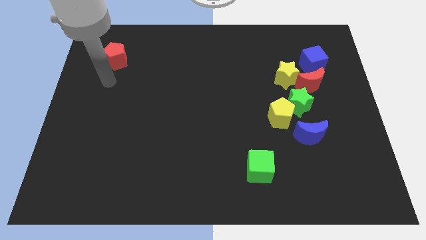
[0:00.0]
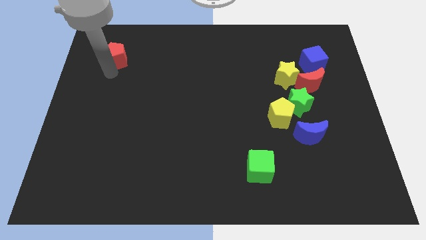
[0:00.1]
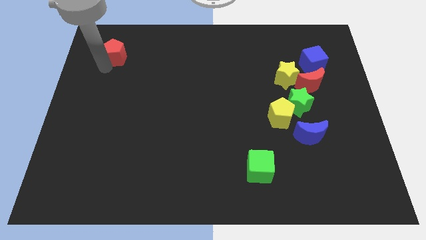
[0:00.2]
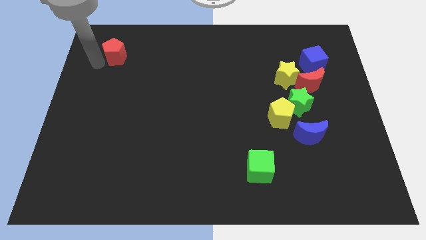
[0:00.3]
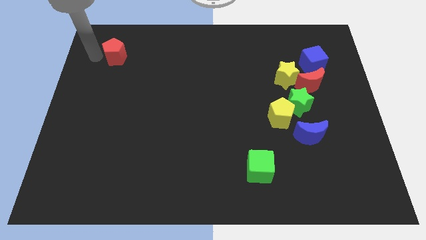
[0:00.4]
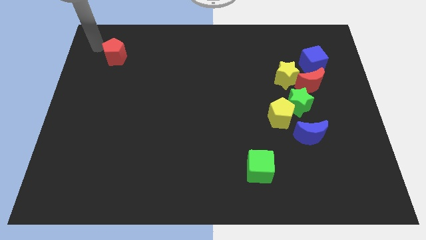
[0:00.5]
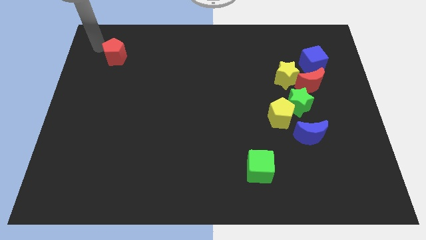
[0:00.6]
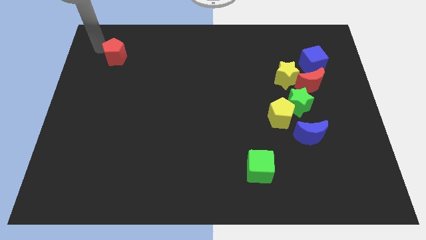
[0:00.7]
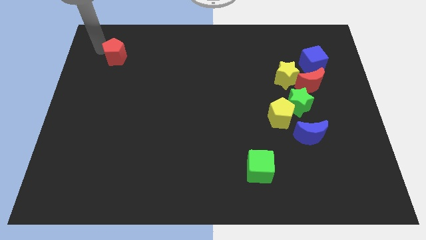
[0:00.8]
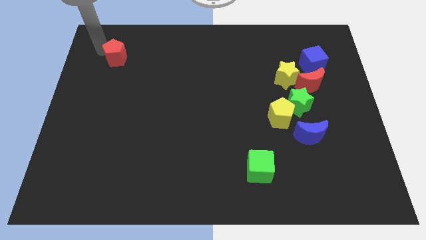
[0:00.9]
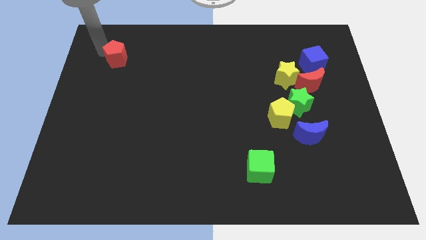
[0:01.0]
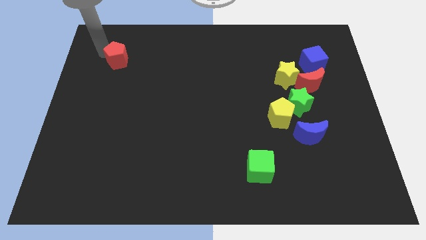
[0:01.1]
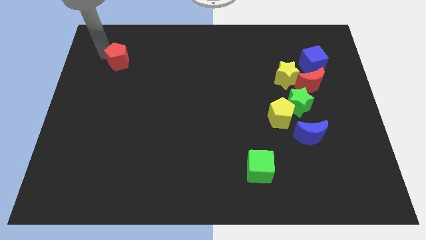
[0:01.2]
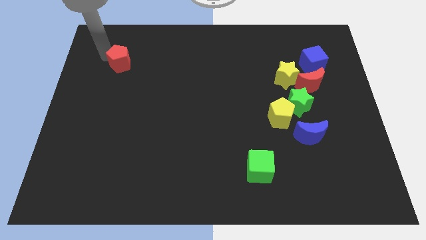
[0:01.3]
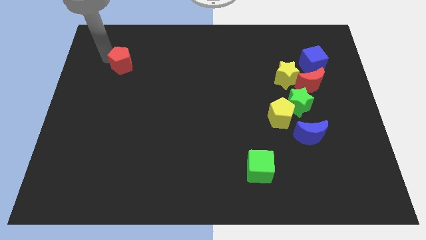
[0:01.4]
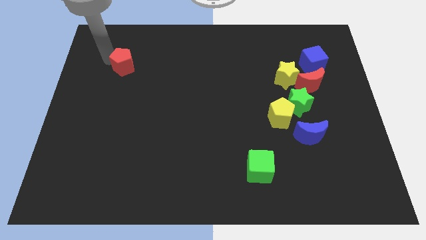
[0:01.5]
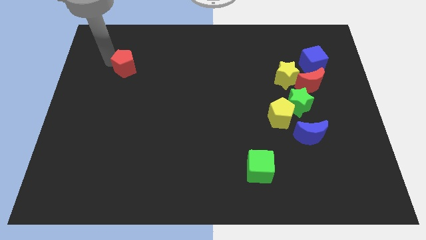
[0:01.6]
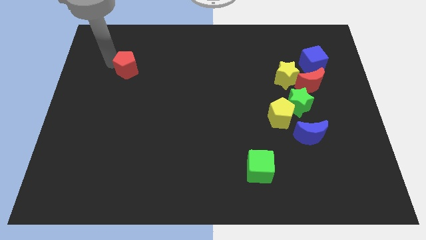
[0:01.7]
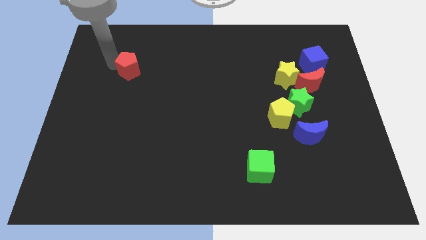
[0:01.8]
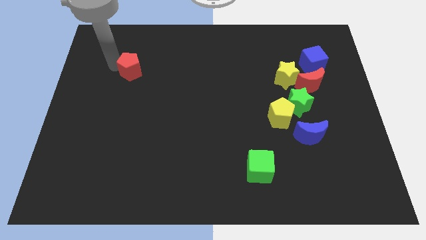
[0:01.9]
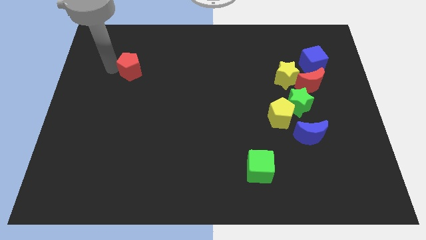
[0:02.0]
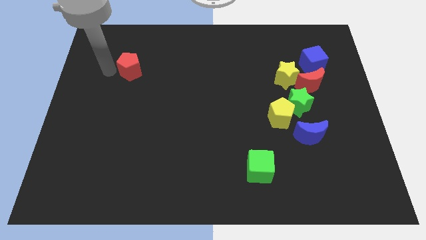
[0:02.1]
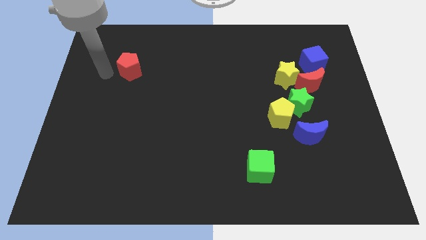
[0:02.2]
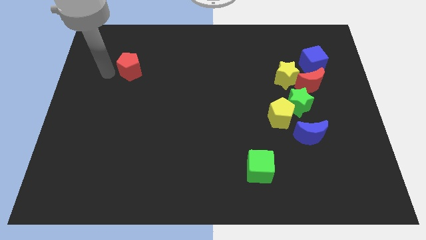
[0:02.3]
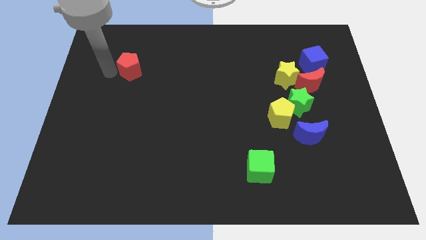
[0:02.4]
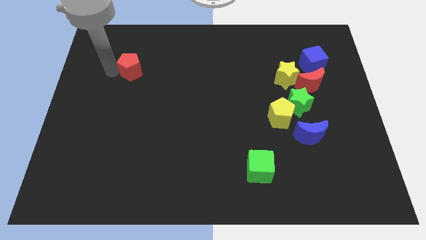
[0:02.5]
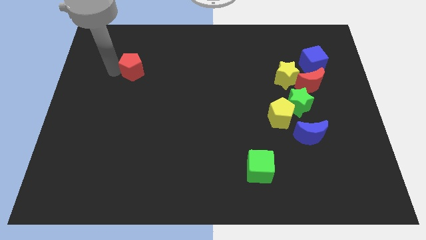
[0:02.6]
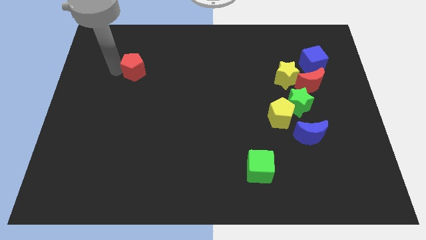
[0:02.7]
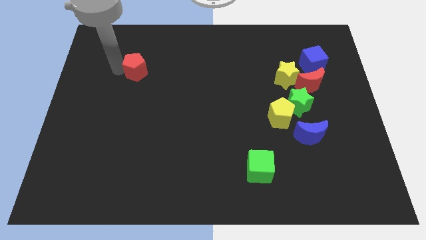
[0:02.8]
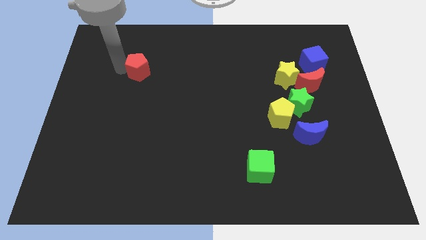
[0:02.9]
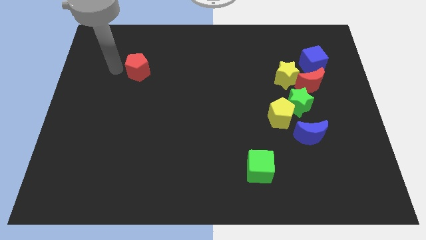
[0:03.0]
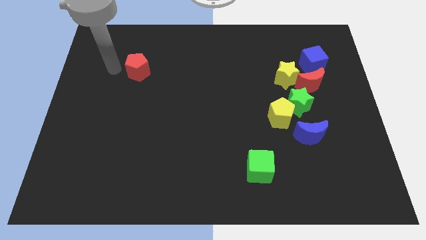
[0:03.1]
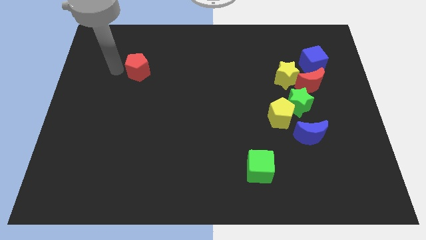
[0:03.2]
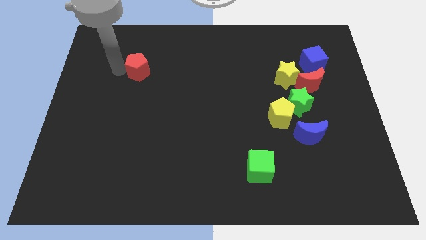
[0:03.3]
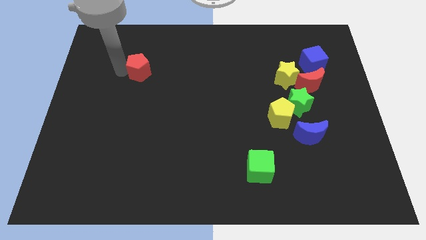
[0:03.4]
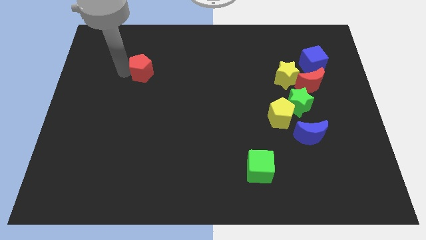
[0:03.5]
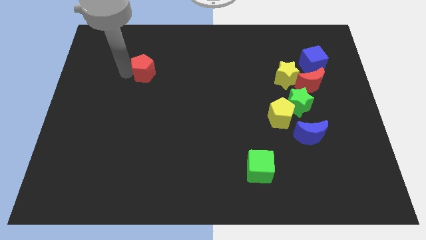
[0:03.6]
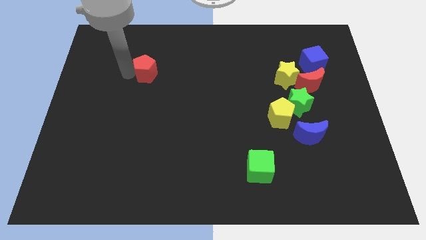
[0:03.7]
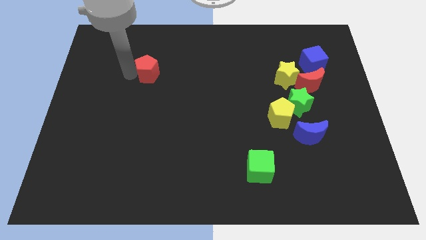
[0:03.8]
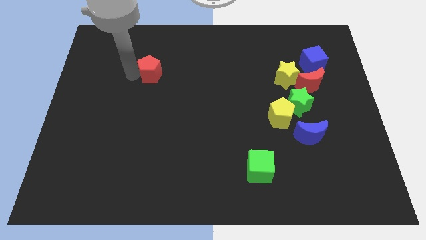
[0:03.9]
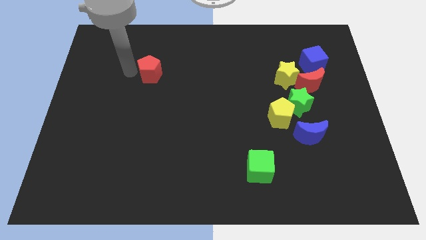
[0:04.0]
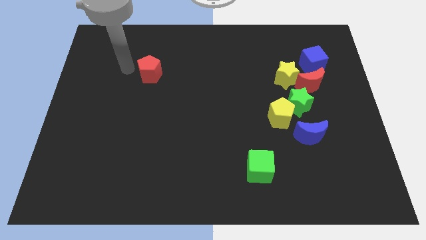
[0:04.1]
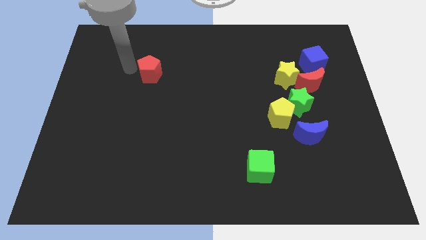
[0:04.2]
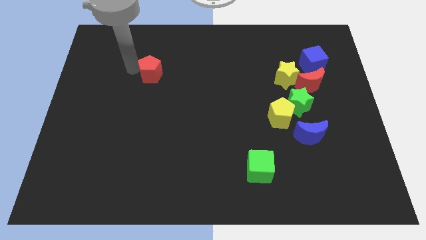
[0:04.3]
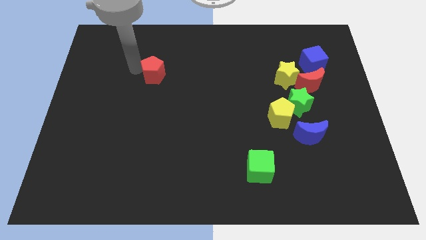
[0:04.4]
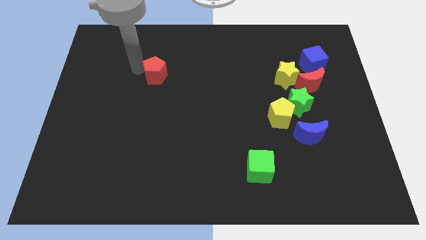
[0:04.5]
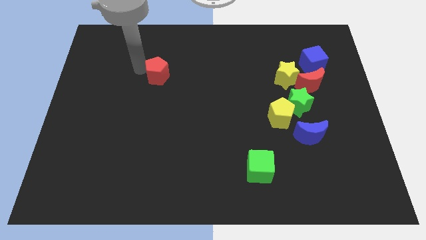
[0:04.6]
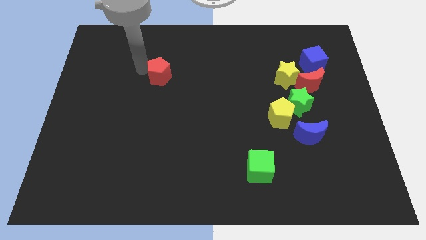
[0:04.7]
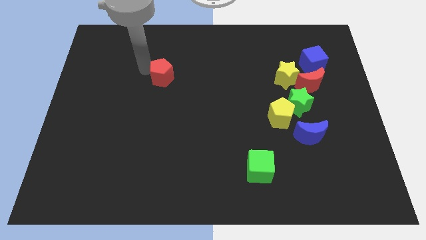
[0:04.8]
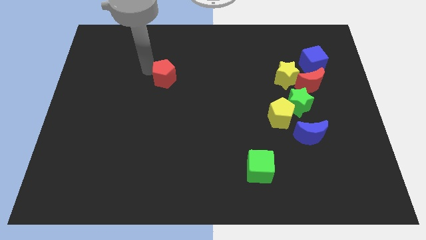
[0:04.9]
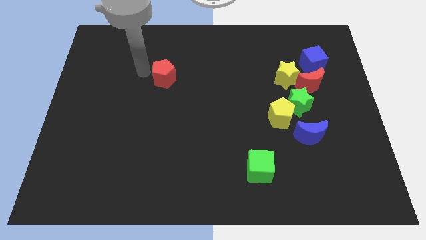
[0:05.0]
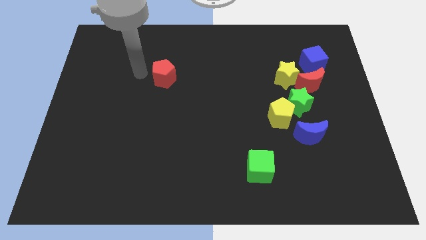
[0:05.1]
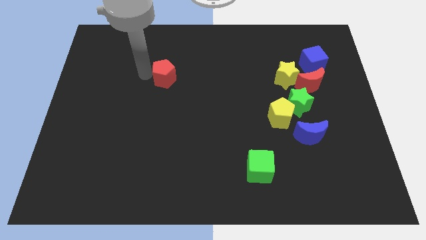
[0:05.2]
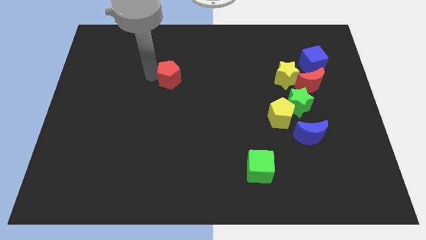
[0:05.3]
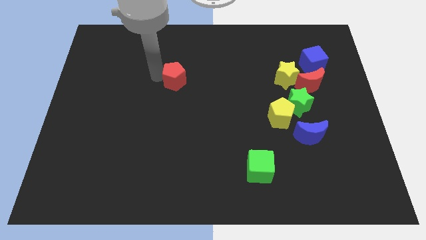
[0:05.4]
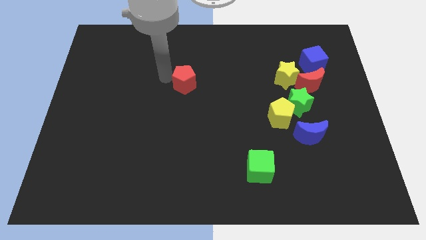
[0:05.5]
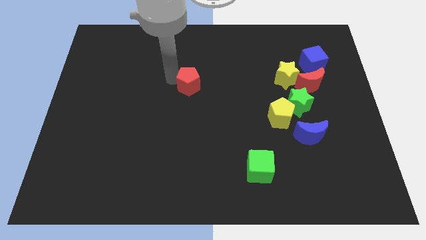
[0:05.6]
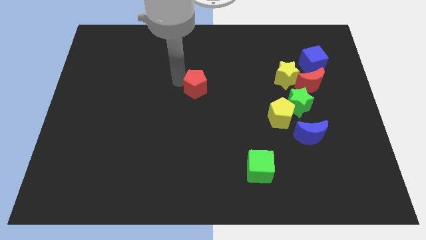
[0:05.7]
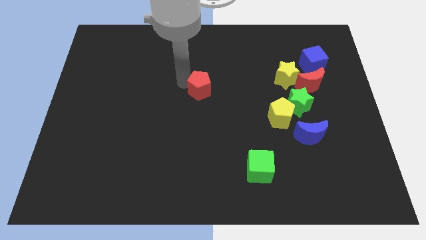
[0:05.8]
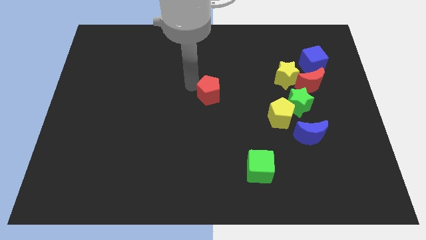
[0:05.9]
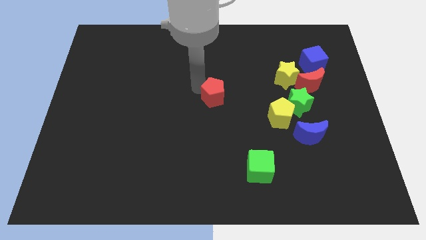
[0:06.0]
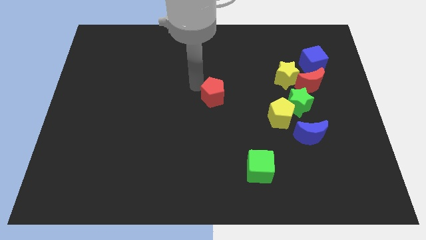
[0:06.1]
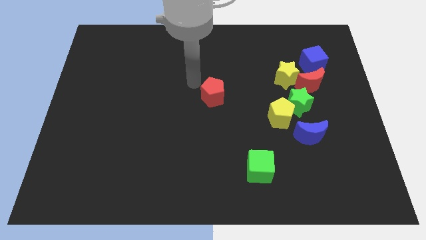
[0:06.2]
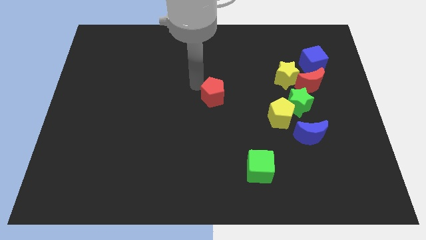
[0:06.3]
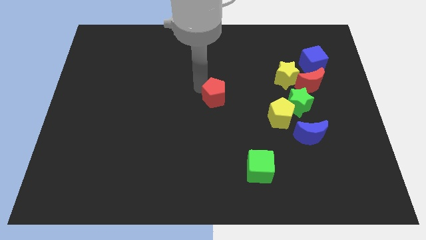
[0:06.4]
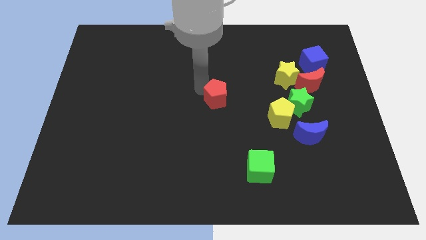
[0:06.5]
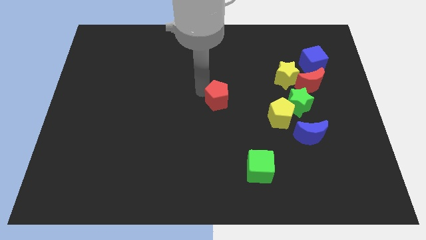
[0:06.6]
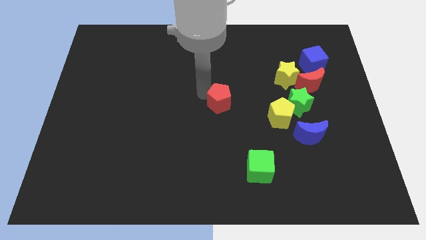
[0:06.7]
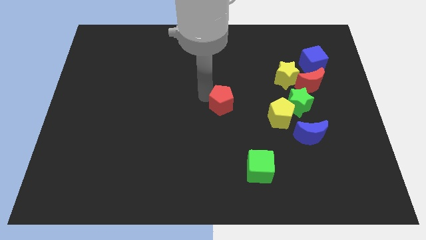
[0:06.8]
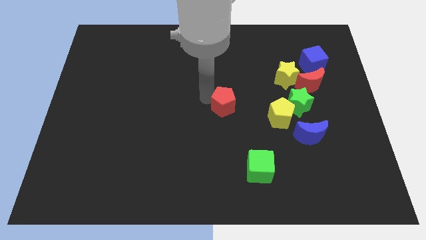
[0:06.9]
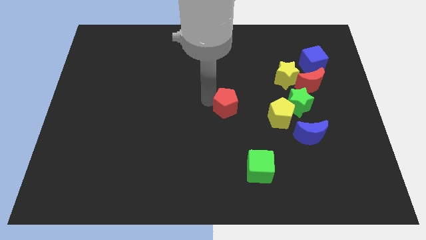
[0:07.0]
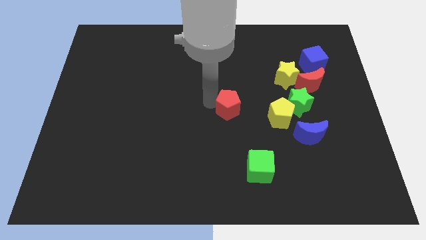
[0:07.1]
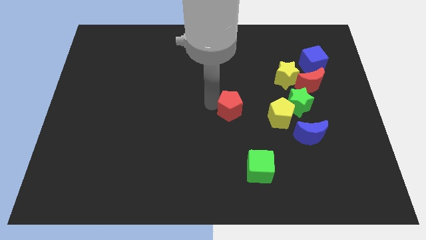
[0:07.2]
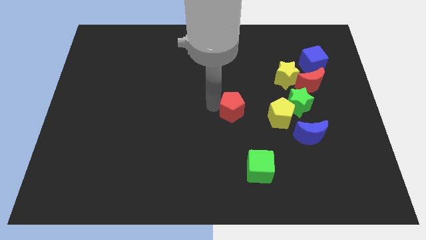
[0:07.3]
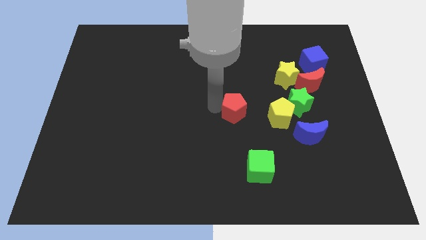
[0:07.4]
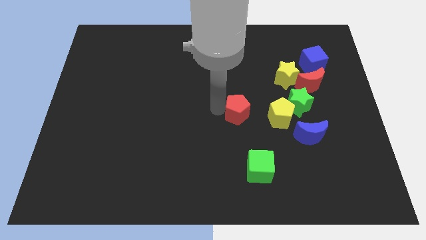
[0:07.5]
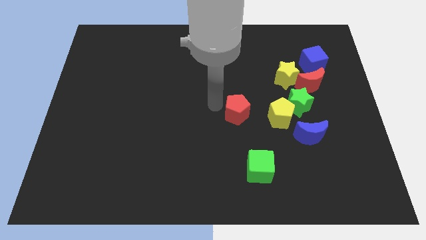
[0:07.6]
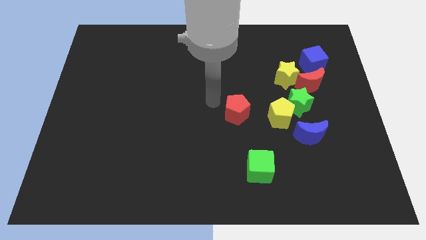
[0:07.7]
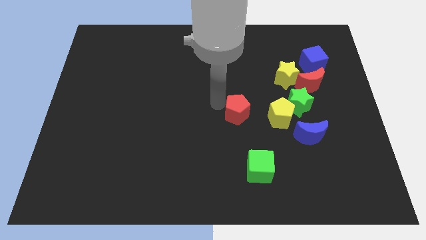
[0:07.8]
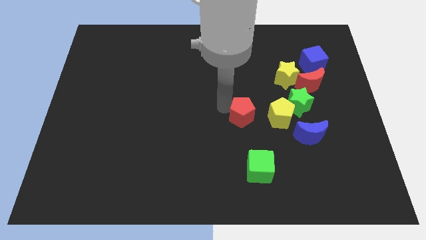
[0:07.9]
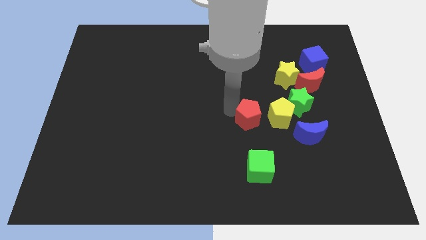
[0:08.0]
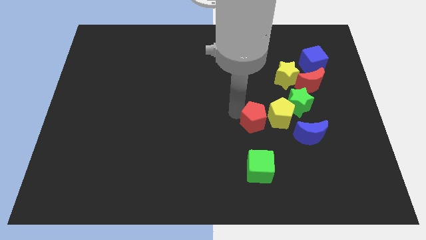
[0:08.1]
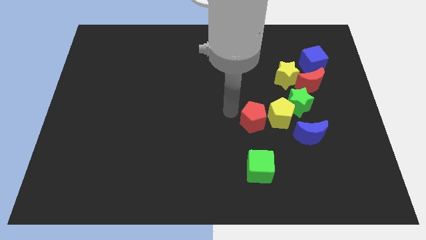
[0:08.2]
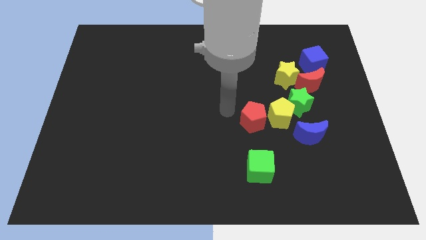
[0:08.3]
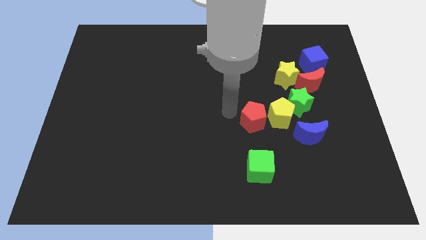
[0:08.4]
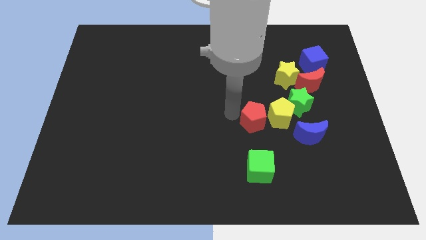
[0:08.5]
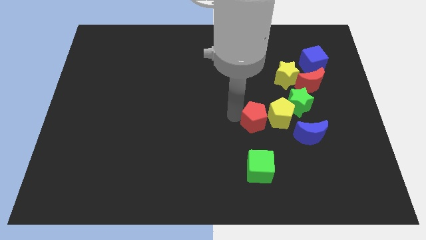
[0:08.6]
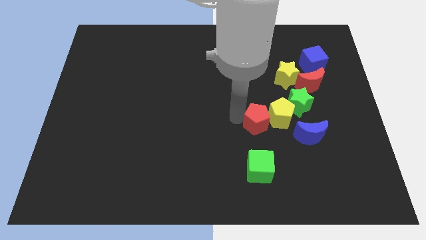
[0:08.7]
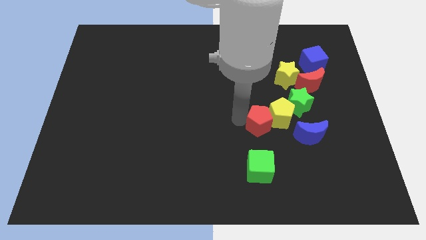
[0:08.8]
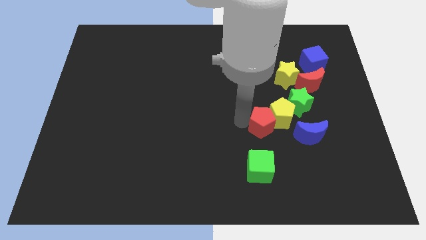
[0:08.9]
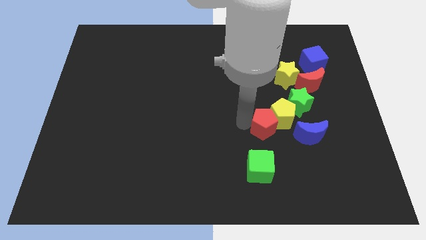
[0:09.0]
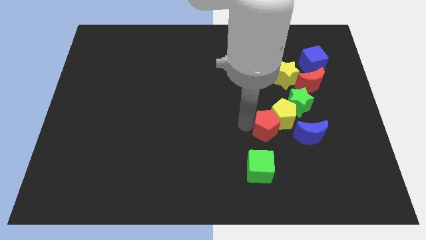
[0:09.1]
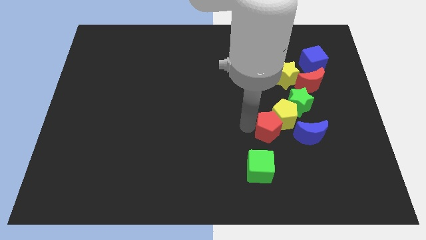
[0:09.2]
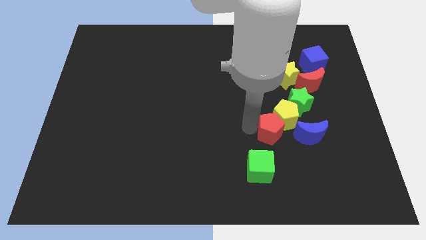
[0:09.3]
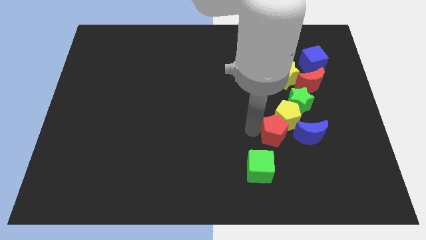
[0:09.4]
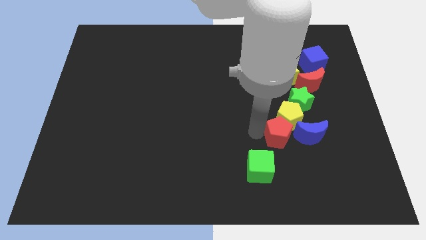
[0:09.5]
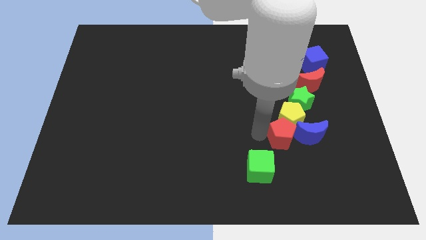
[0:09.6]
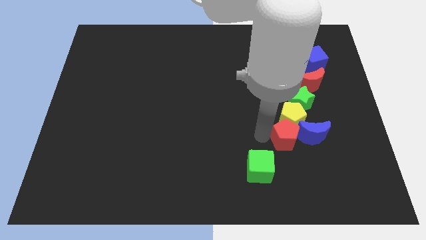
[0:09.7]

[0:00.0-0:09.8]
slide the red pentagon to the blue moon
